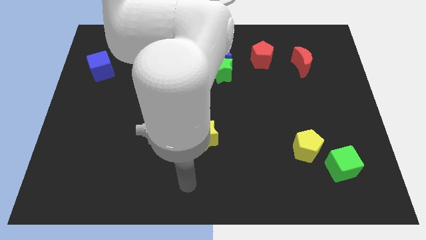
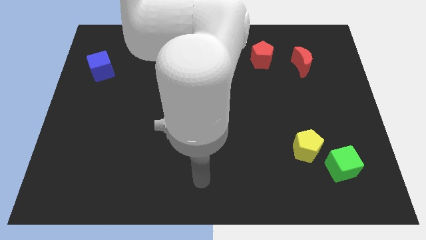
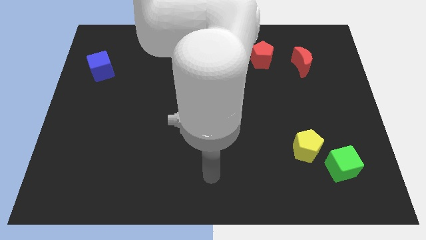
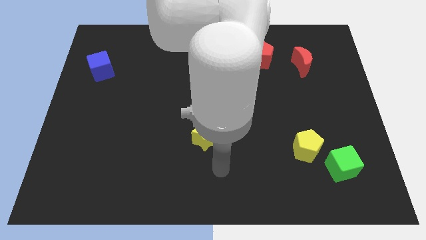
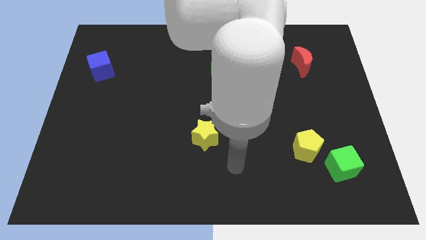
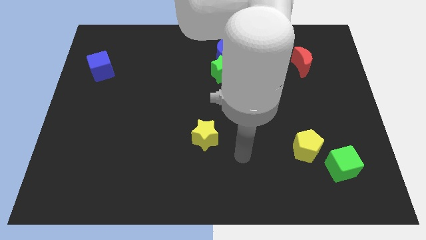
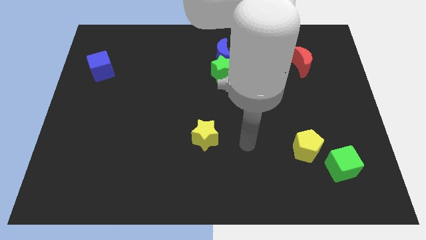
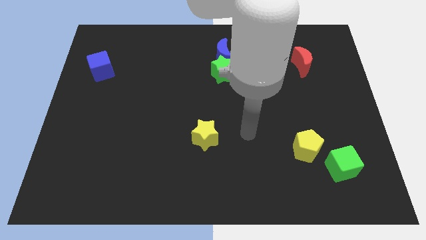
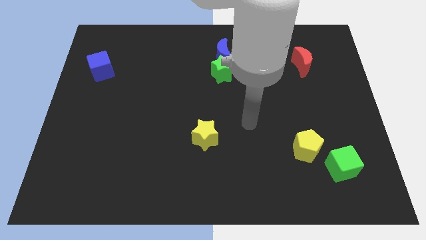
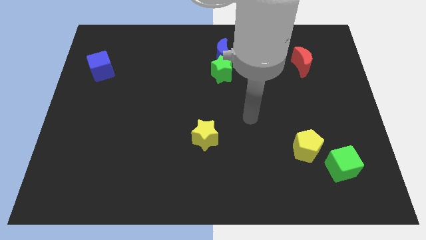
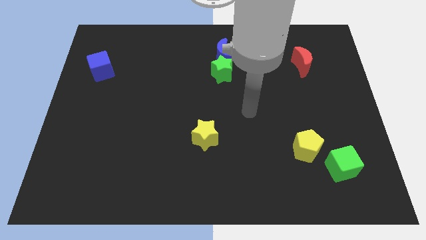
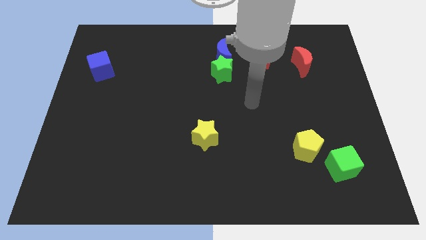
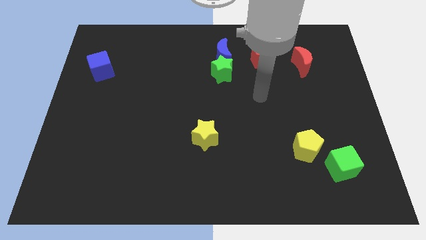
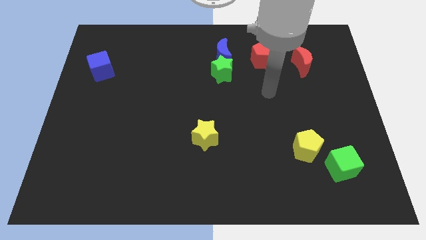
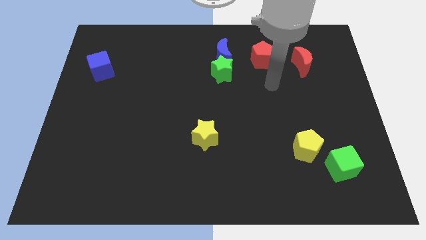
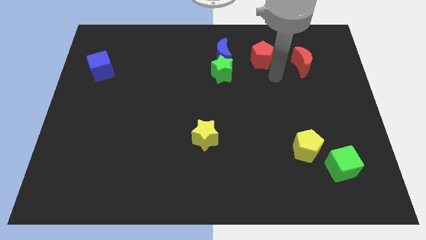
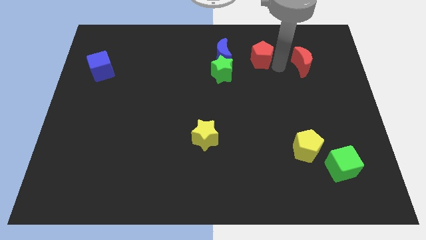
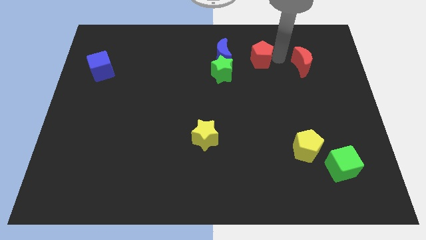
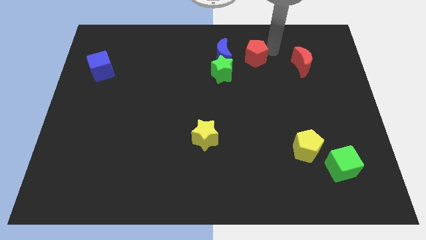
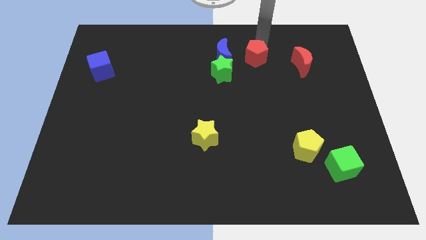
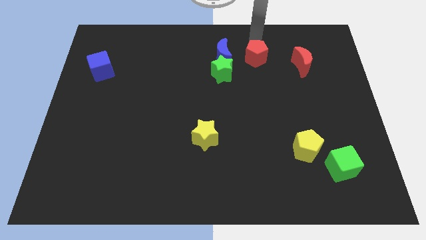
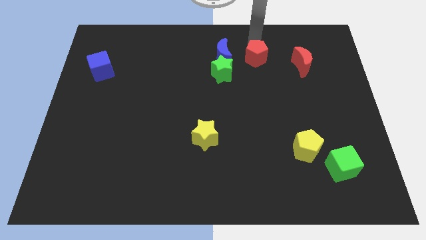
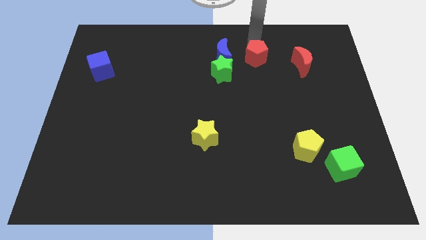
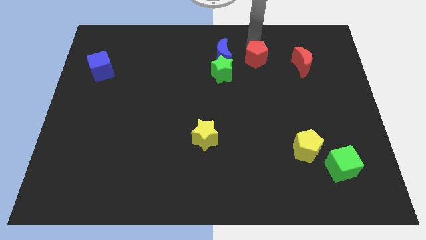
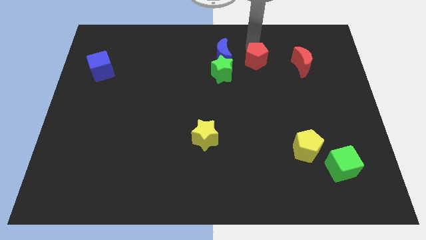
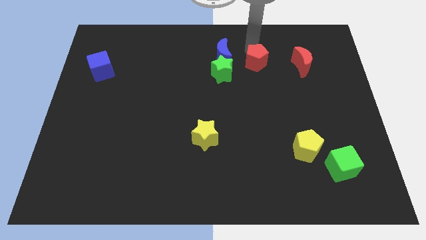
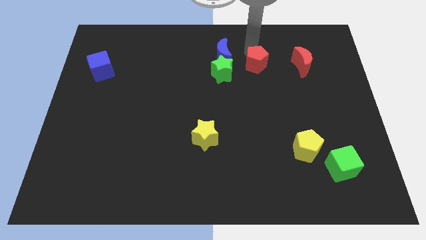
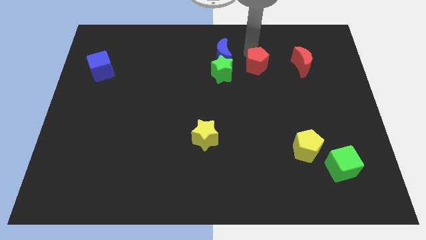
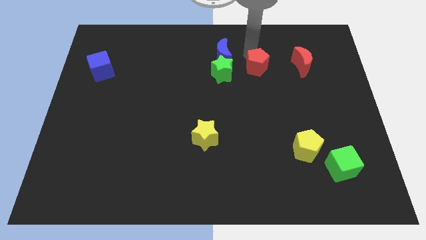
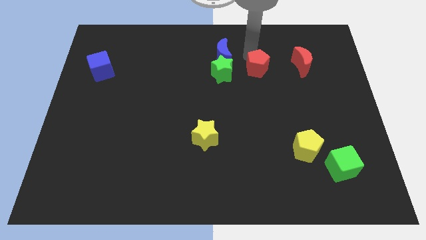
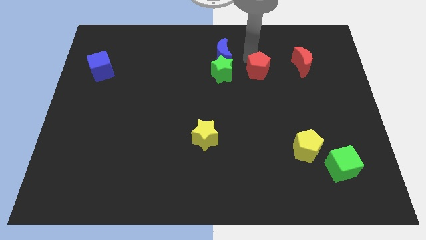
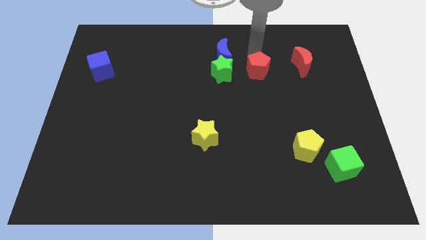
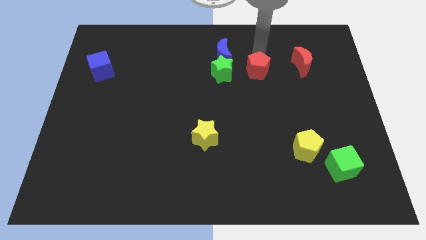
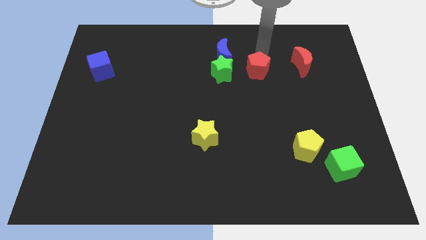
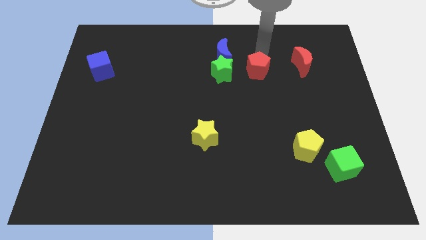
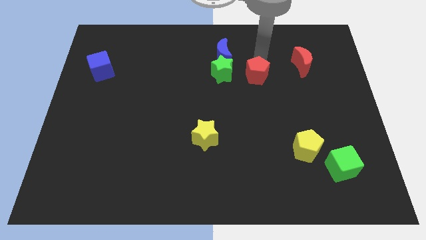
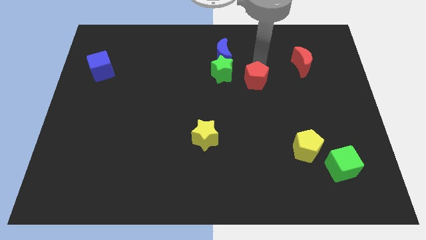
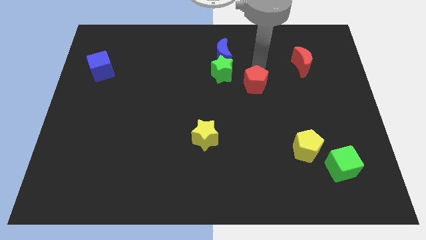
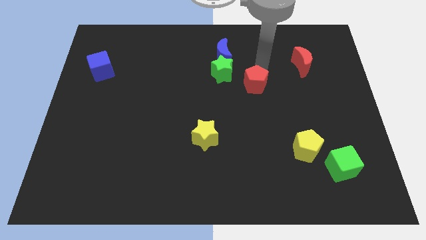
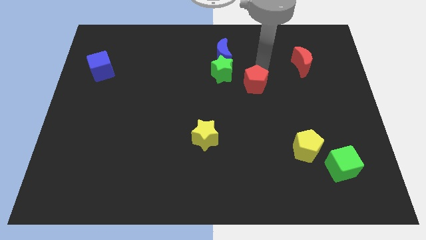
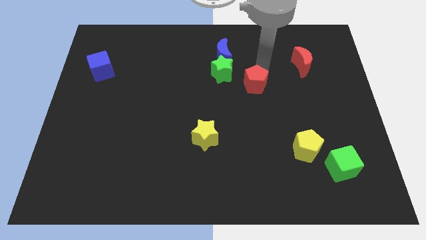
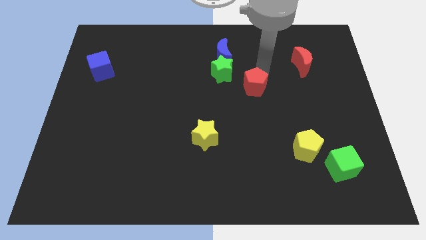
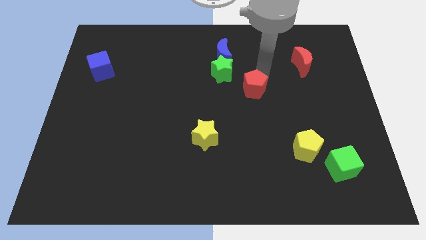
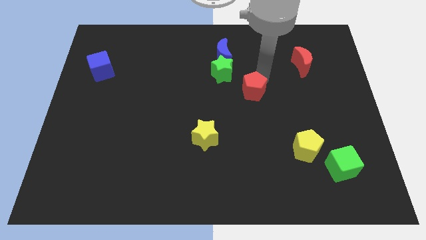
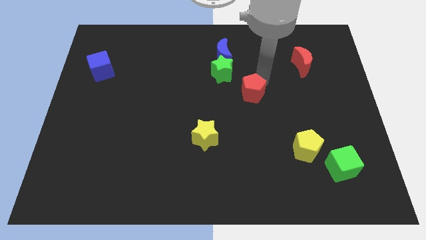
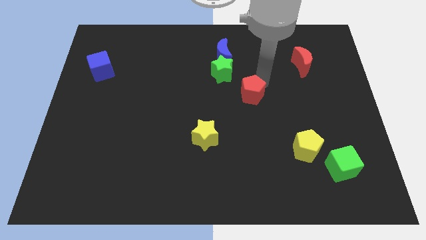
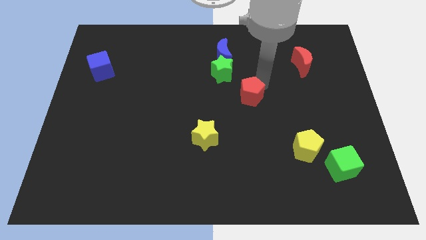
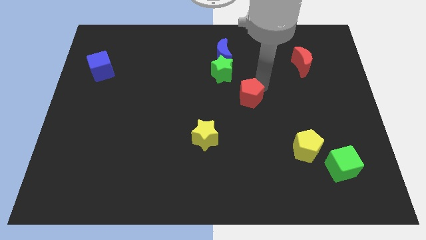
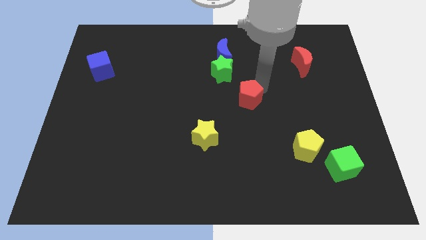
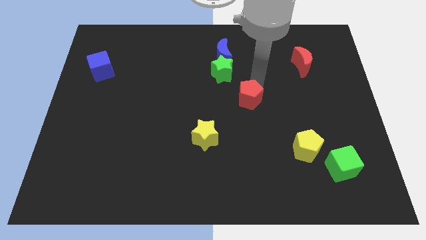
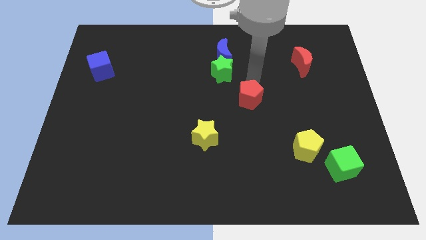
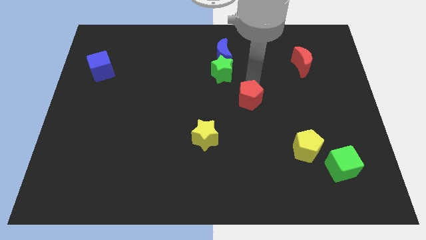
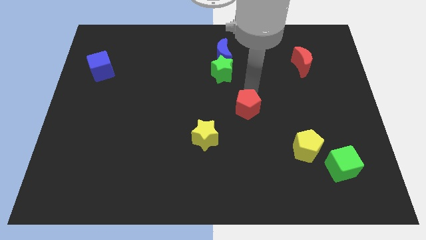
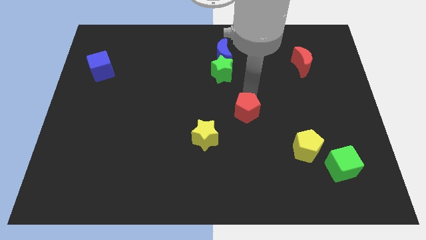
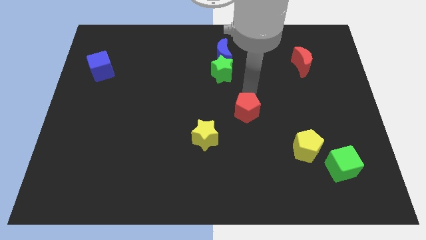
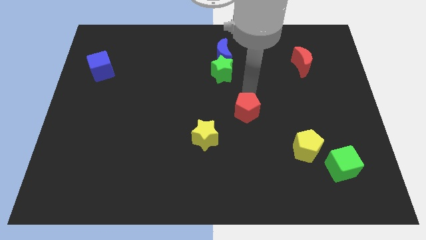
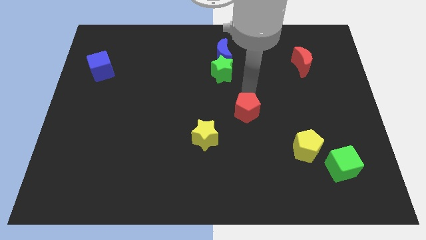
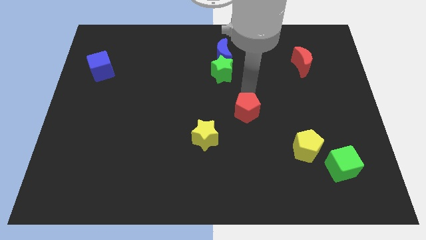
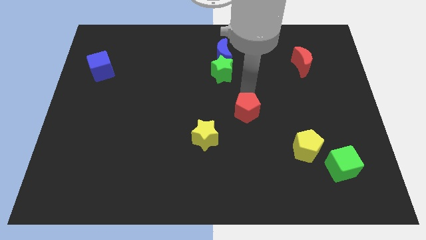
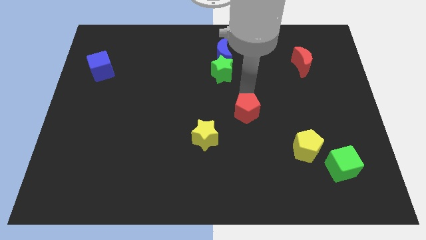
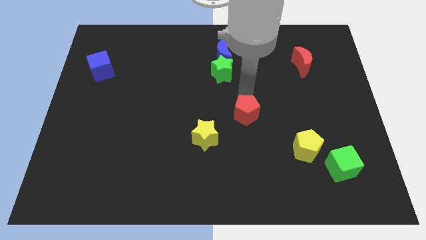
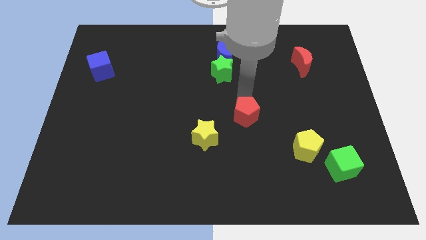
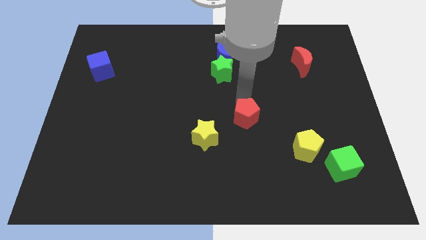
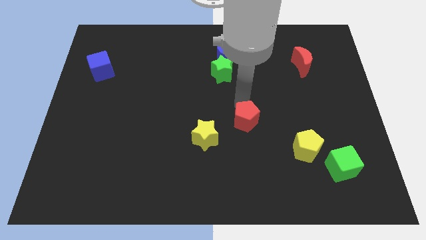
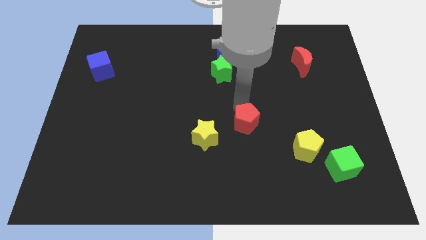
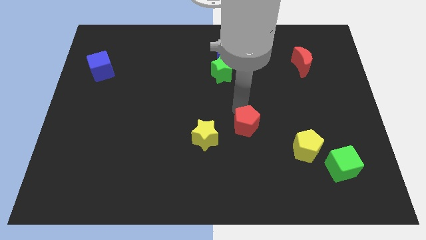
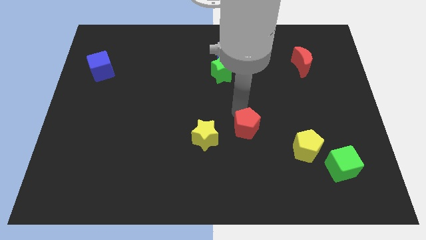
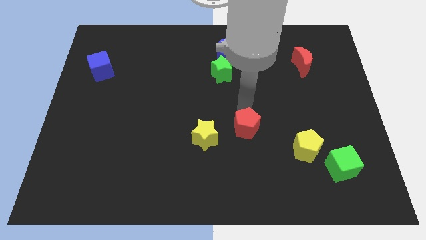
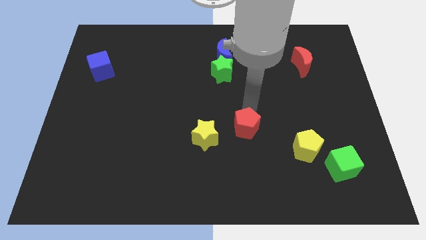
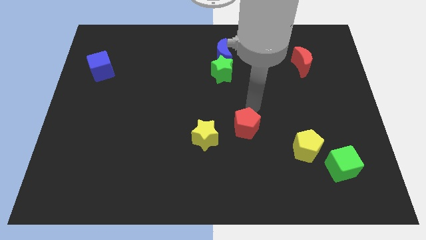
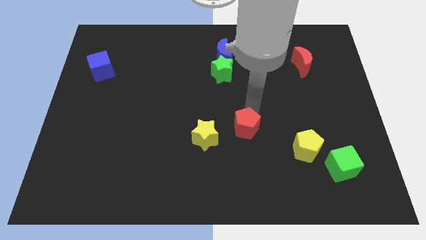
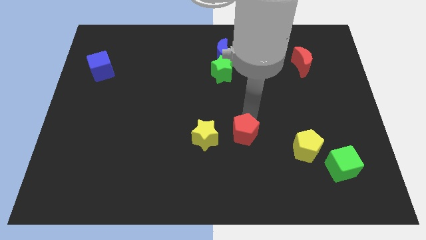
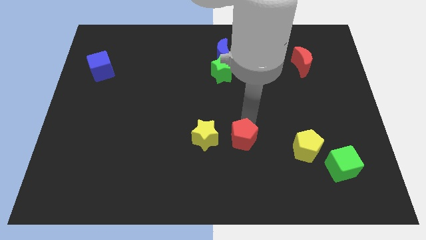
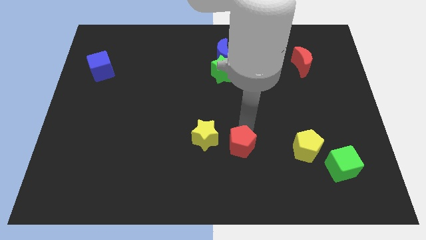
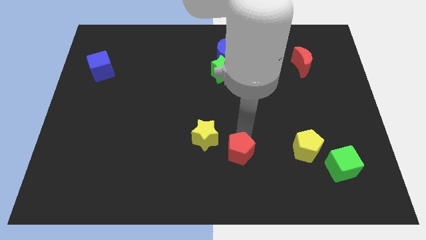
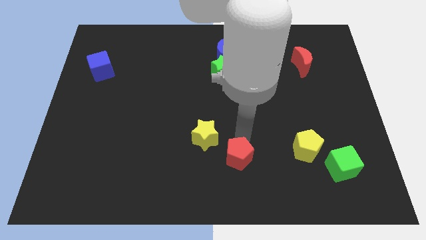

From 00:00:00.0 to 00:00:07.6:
move the red pentagon to the bottom side
